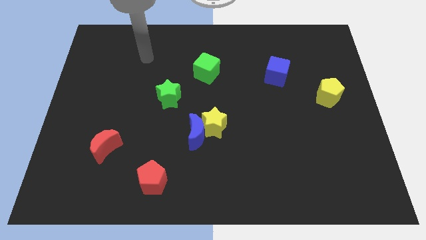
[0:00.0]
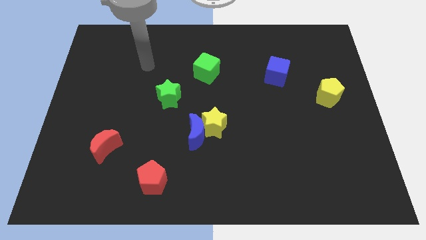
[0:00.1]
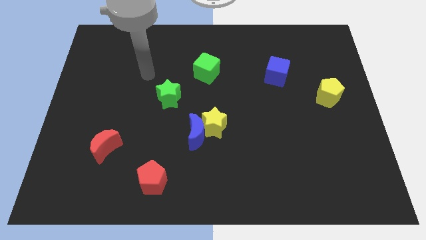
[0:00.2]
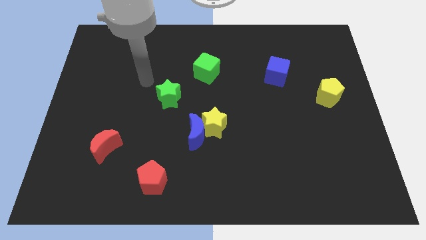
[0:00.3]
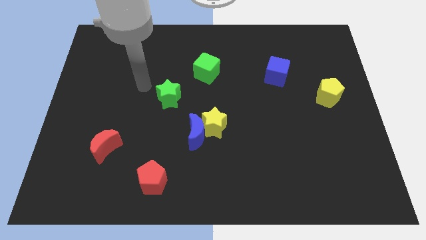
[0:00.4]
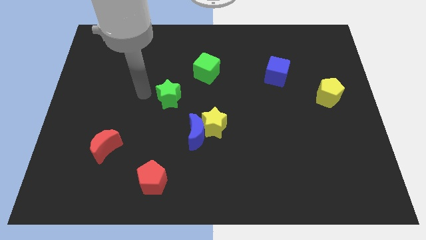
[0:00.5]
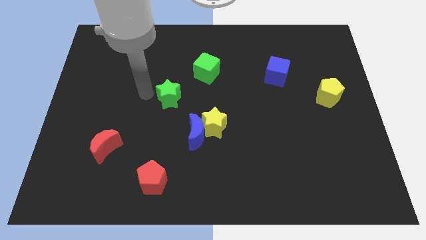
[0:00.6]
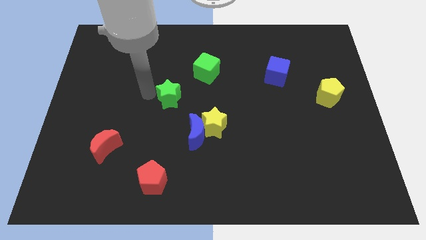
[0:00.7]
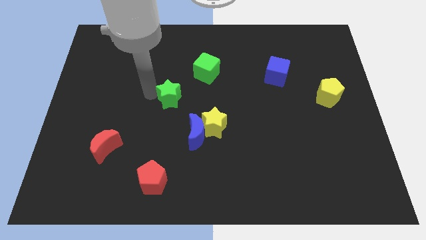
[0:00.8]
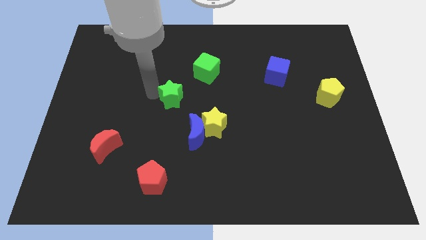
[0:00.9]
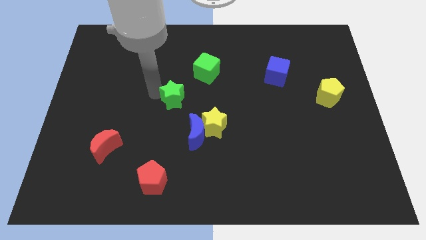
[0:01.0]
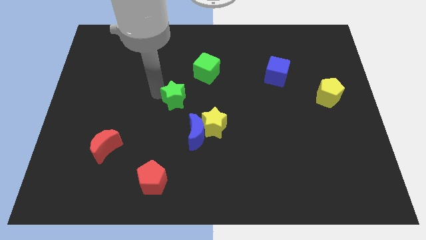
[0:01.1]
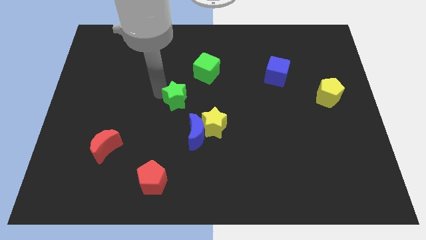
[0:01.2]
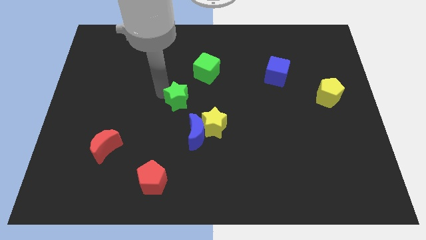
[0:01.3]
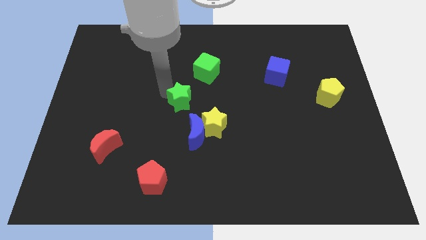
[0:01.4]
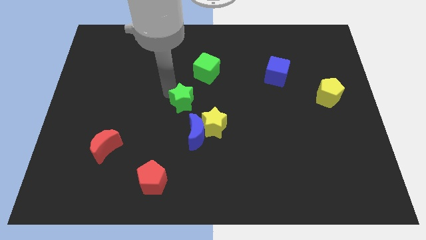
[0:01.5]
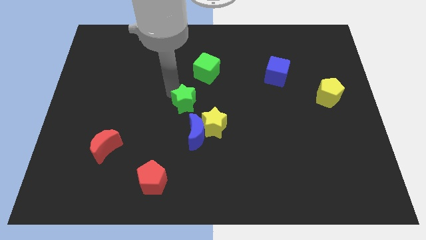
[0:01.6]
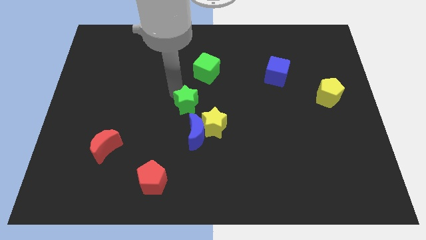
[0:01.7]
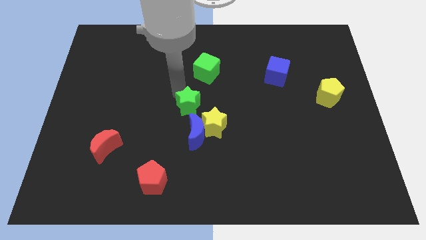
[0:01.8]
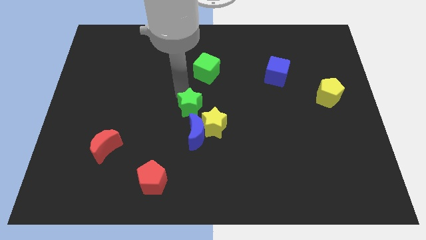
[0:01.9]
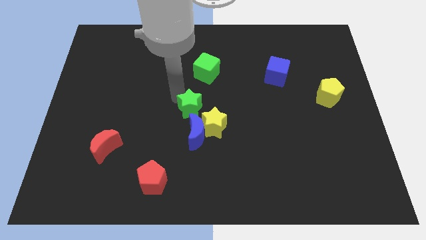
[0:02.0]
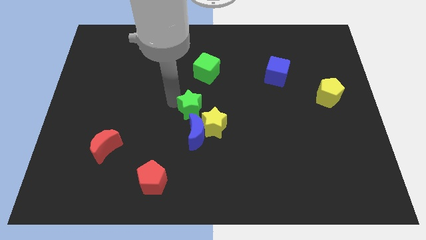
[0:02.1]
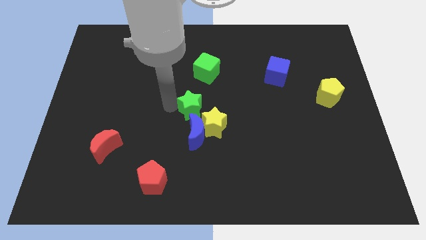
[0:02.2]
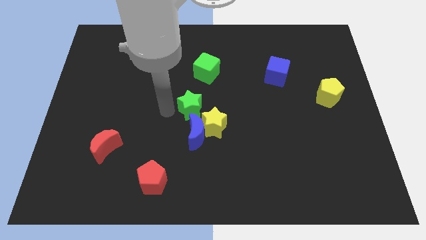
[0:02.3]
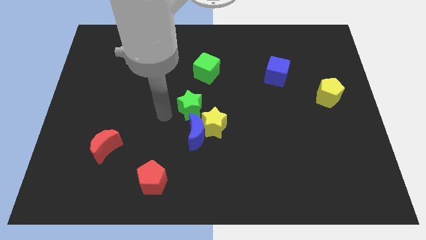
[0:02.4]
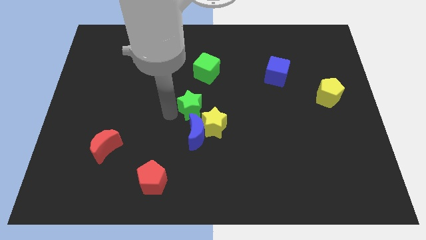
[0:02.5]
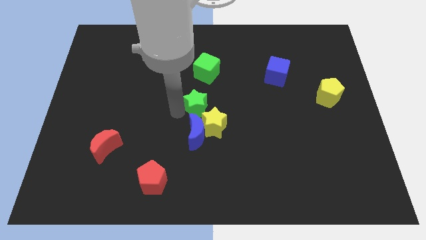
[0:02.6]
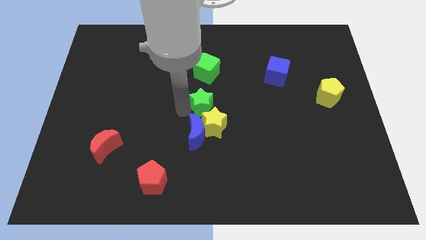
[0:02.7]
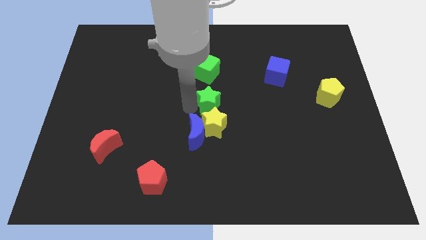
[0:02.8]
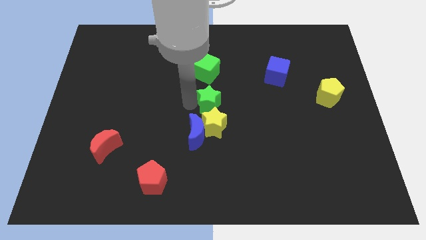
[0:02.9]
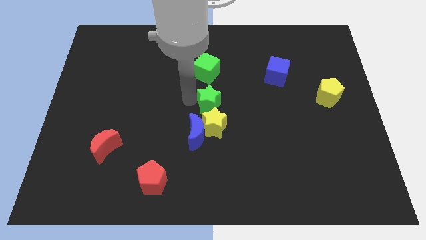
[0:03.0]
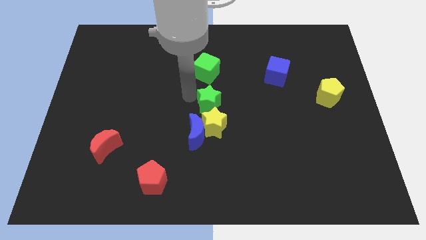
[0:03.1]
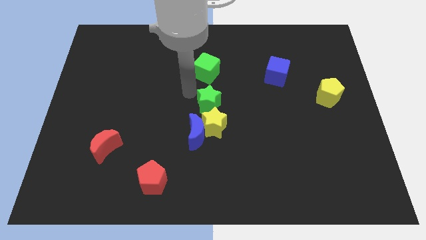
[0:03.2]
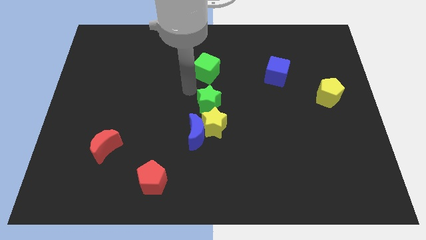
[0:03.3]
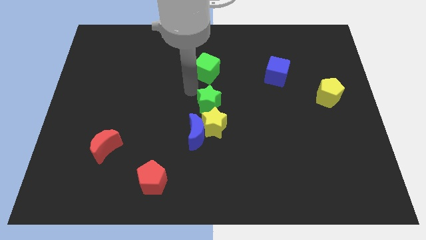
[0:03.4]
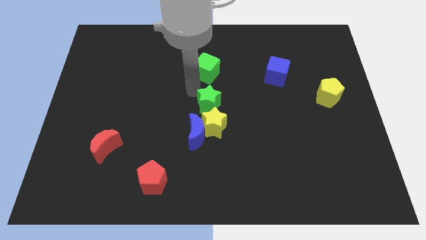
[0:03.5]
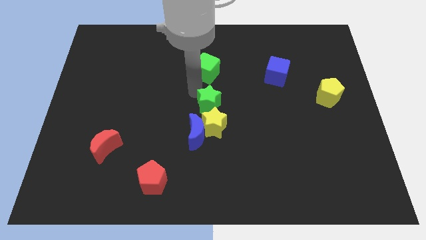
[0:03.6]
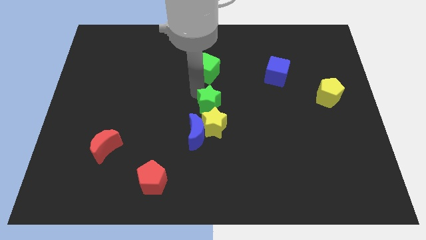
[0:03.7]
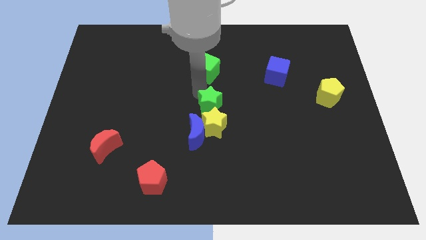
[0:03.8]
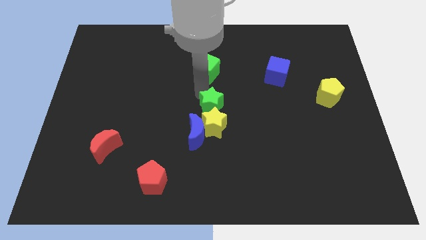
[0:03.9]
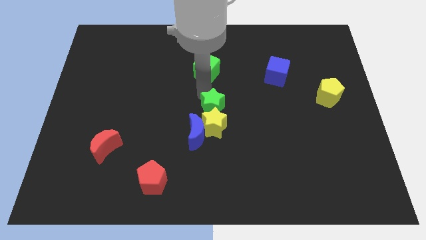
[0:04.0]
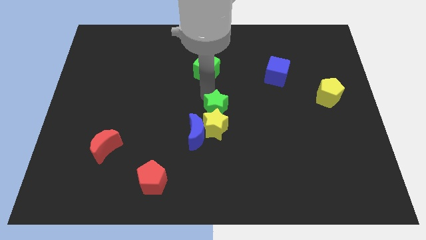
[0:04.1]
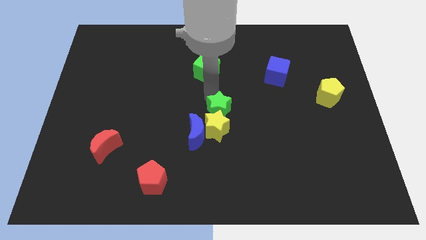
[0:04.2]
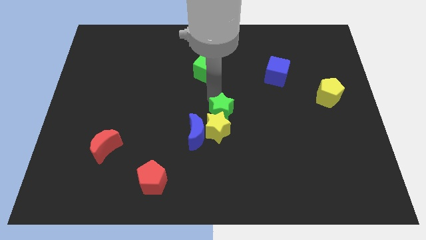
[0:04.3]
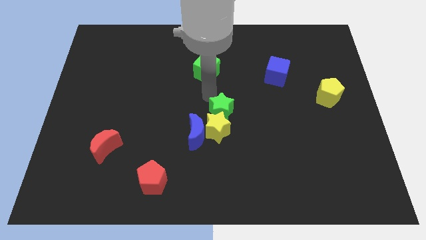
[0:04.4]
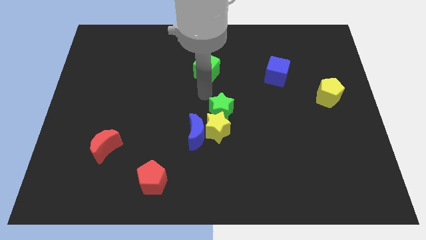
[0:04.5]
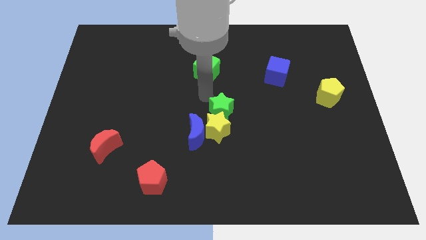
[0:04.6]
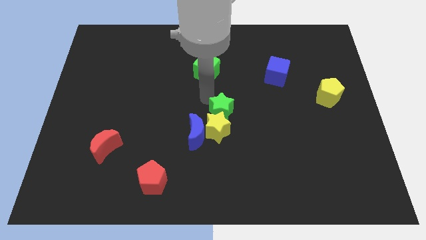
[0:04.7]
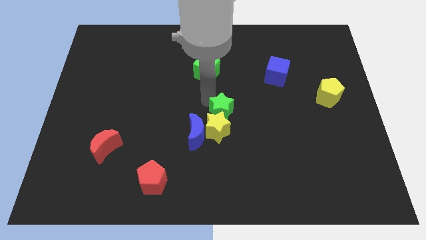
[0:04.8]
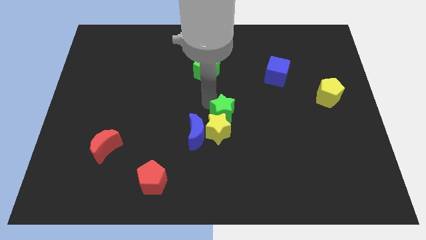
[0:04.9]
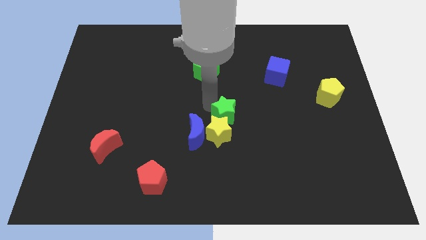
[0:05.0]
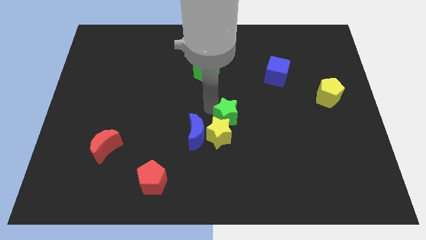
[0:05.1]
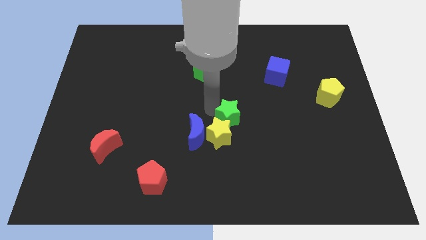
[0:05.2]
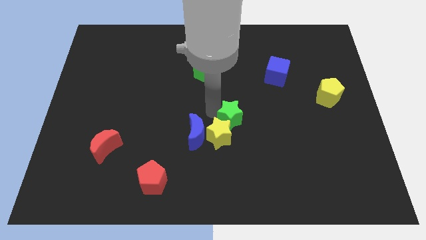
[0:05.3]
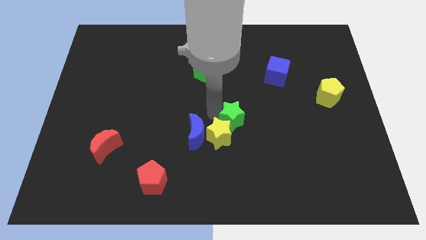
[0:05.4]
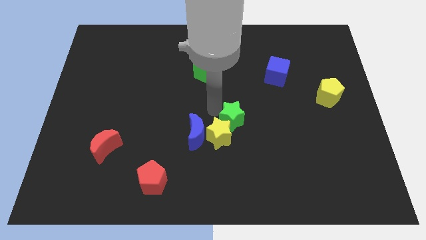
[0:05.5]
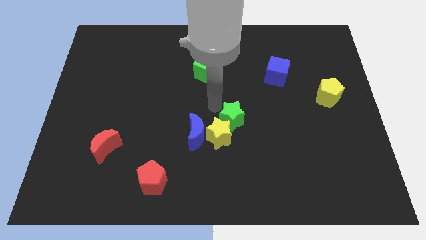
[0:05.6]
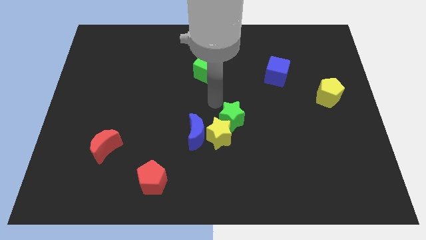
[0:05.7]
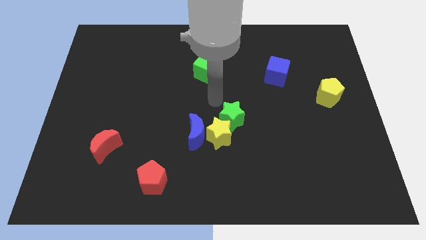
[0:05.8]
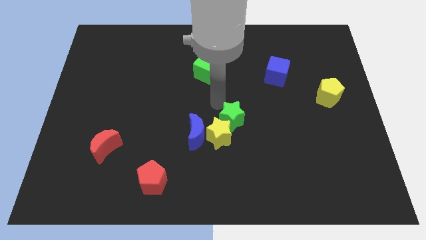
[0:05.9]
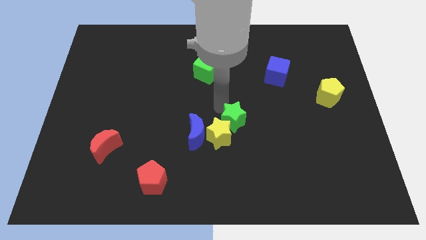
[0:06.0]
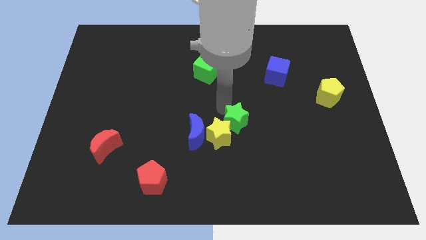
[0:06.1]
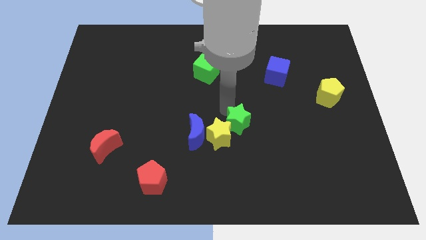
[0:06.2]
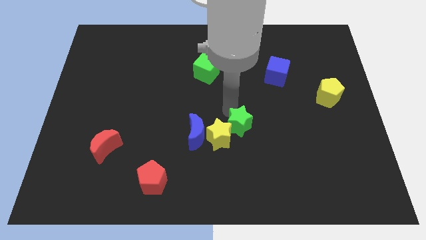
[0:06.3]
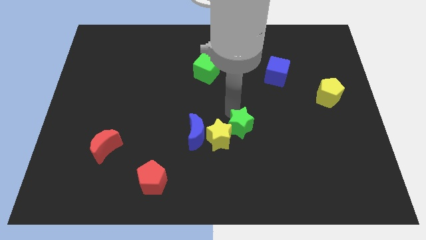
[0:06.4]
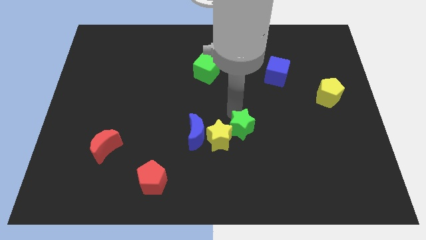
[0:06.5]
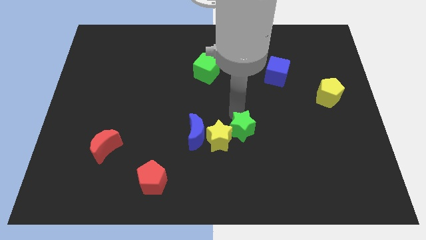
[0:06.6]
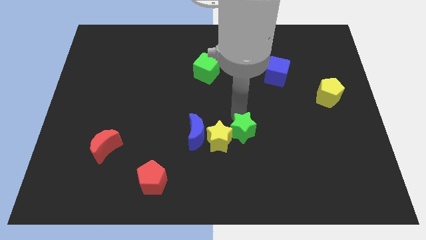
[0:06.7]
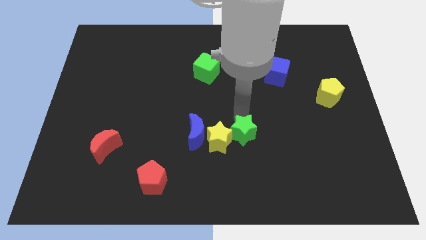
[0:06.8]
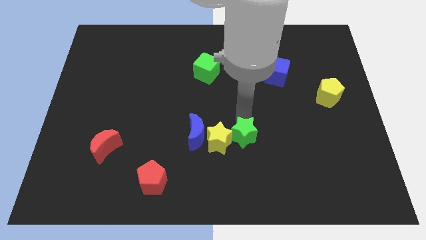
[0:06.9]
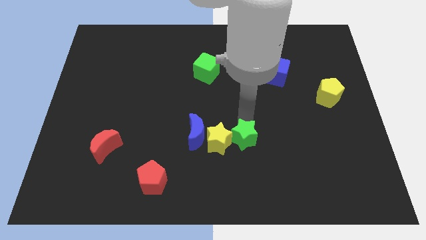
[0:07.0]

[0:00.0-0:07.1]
slide the green star down and to the right

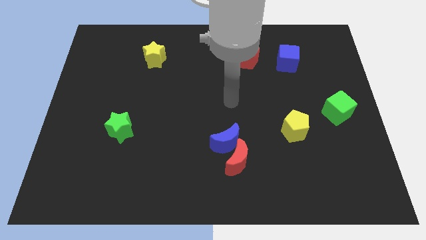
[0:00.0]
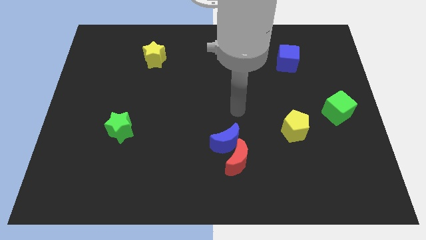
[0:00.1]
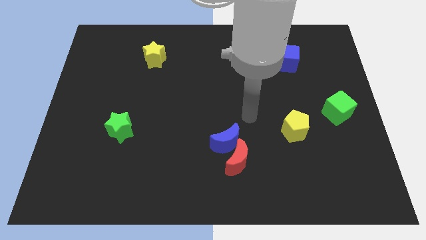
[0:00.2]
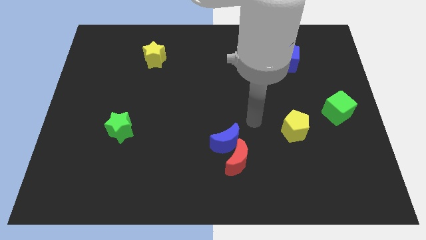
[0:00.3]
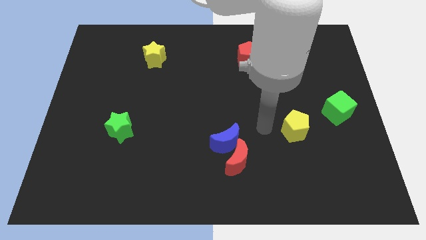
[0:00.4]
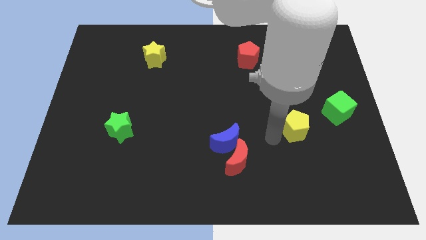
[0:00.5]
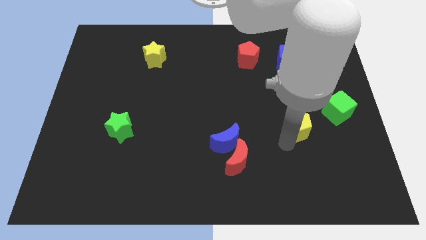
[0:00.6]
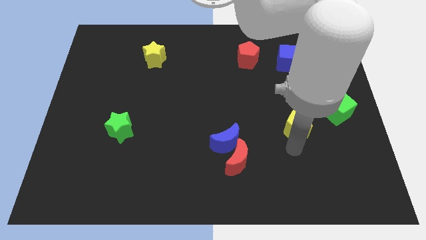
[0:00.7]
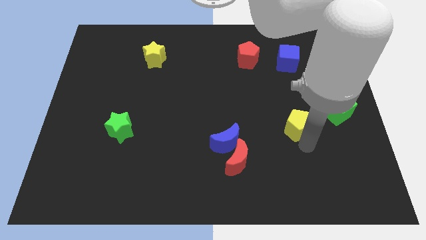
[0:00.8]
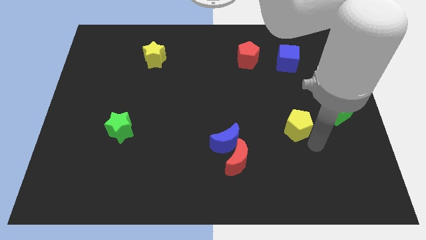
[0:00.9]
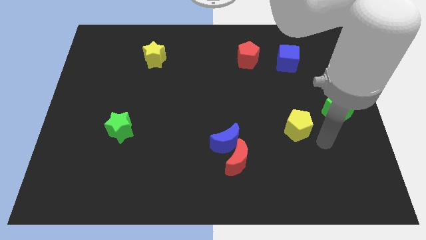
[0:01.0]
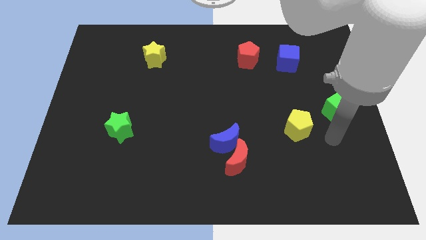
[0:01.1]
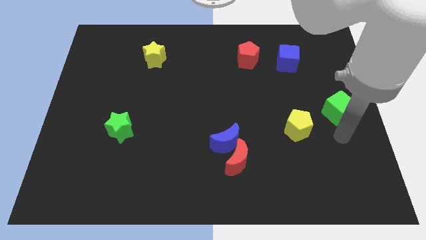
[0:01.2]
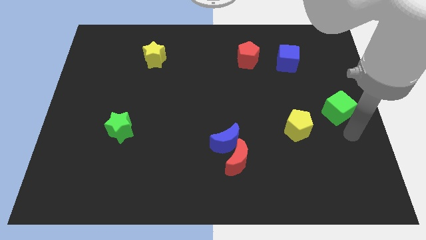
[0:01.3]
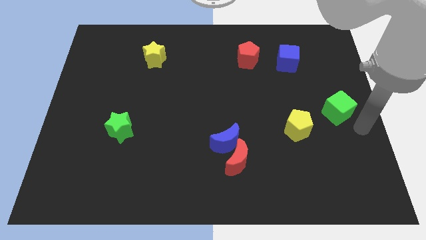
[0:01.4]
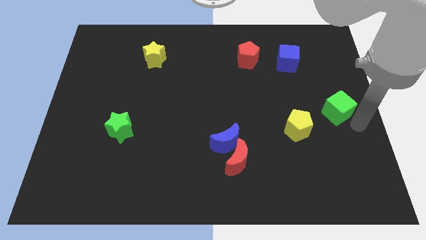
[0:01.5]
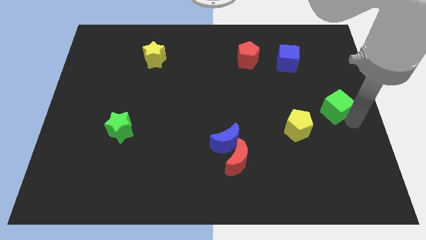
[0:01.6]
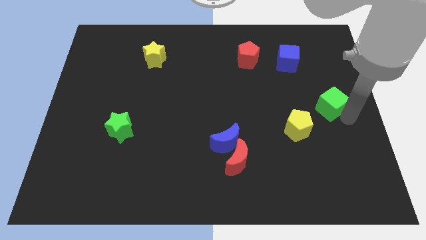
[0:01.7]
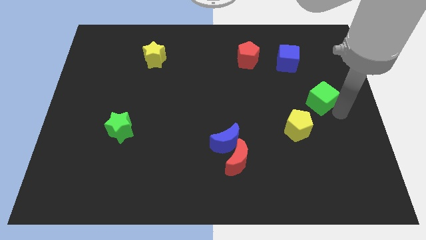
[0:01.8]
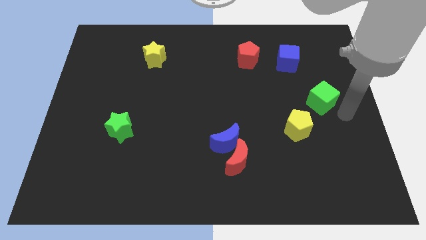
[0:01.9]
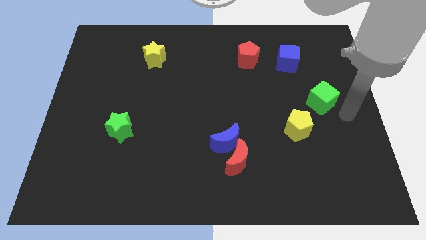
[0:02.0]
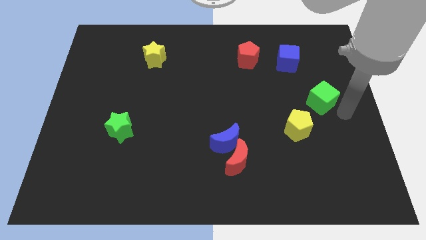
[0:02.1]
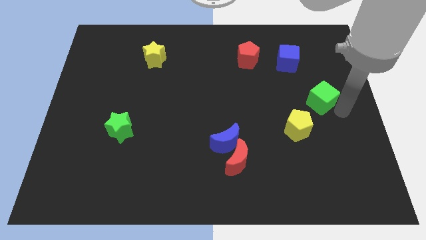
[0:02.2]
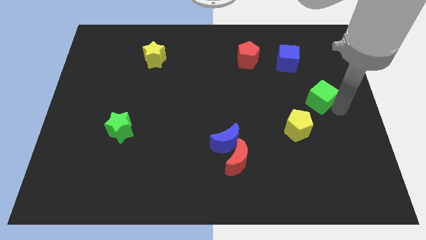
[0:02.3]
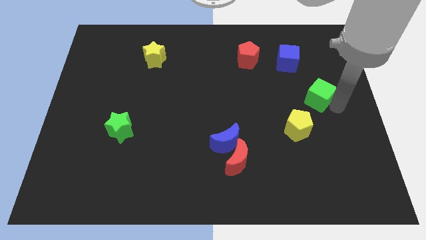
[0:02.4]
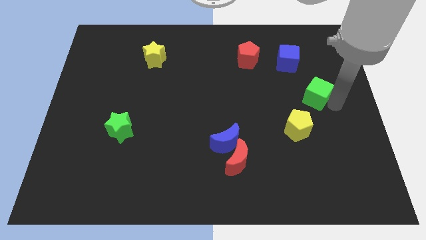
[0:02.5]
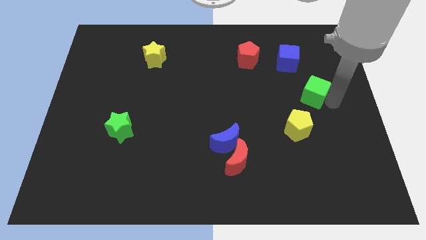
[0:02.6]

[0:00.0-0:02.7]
slightly push the green cube up and to the left diagonally
